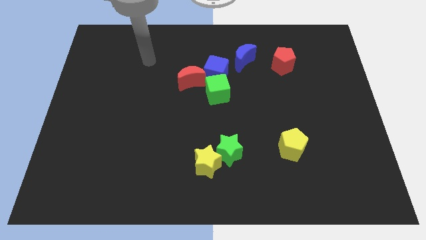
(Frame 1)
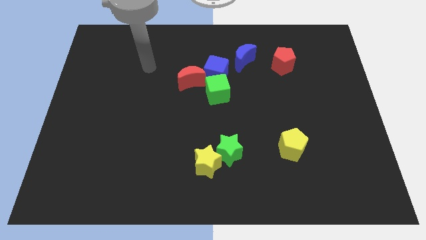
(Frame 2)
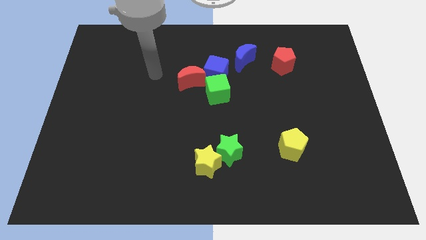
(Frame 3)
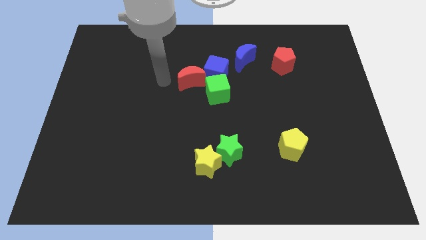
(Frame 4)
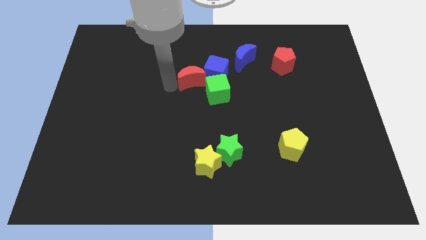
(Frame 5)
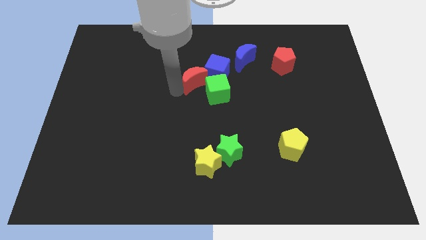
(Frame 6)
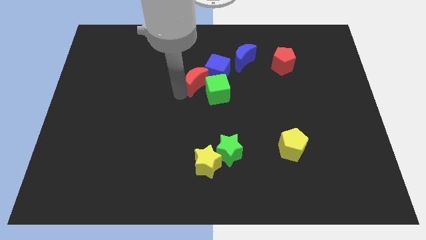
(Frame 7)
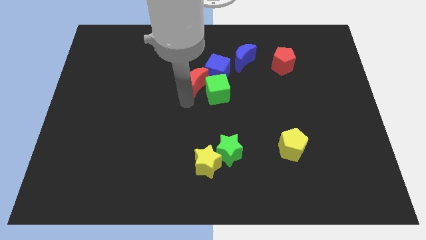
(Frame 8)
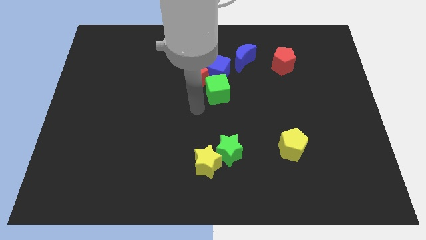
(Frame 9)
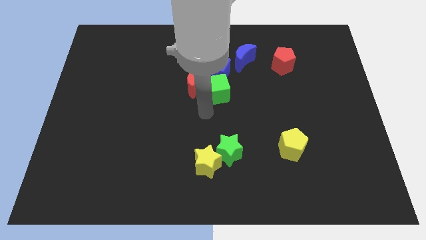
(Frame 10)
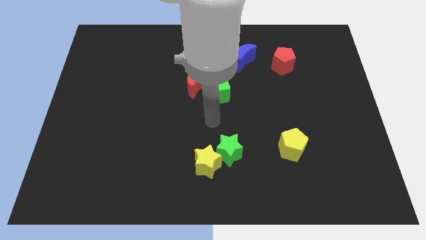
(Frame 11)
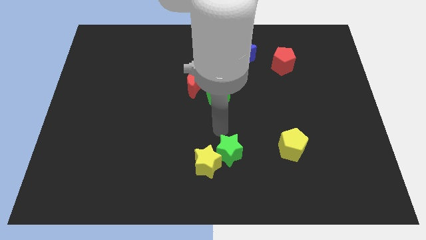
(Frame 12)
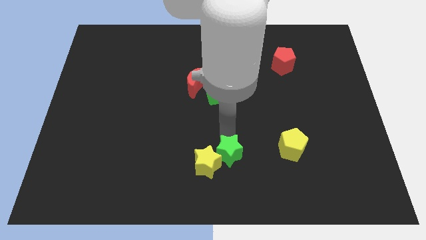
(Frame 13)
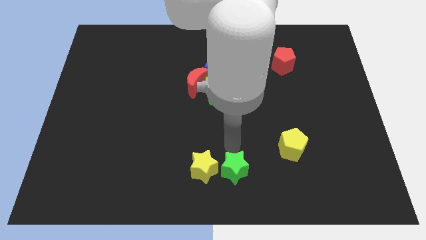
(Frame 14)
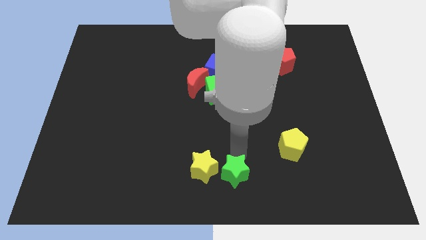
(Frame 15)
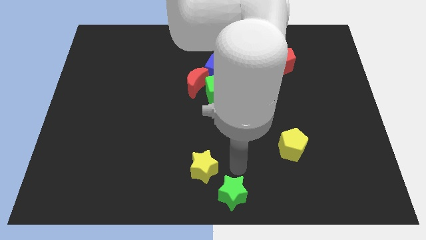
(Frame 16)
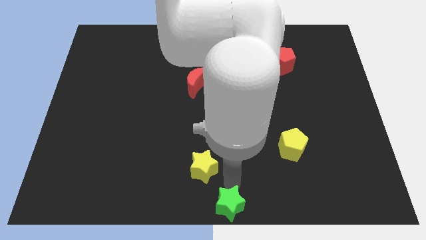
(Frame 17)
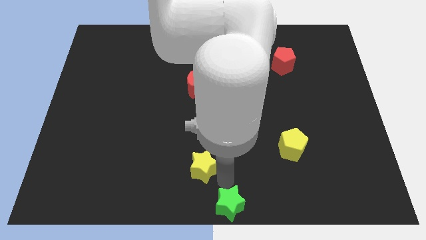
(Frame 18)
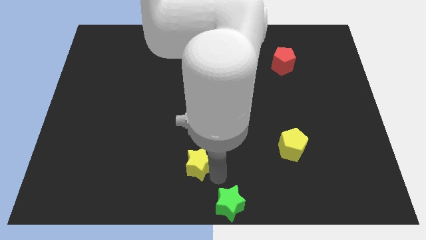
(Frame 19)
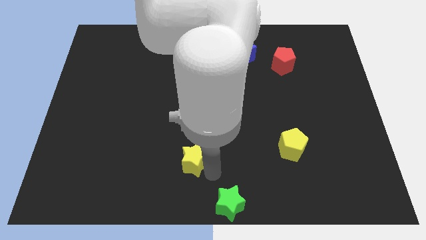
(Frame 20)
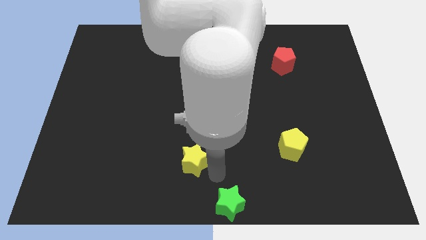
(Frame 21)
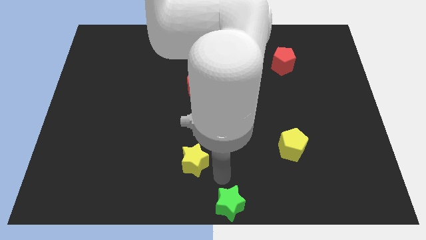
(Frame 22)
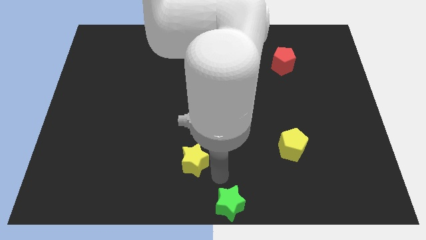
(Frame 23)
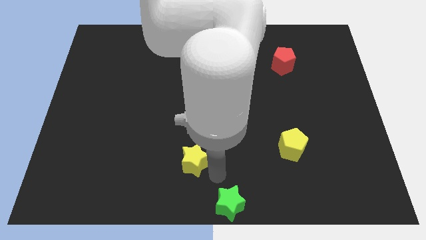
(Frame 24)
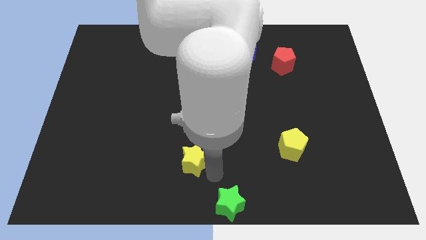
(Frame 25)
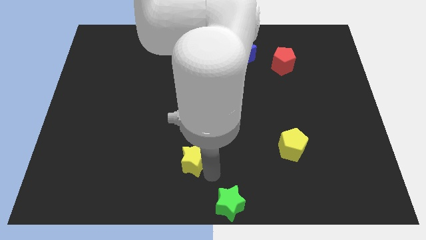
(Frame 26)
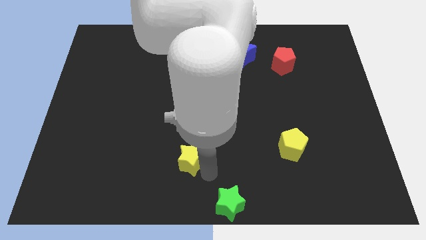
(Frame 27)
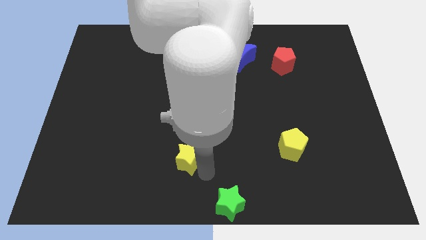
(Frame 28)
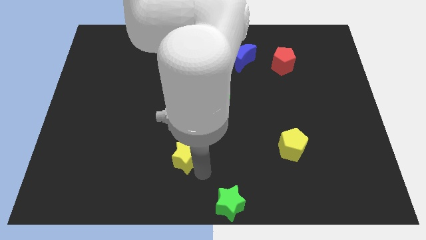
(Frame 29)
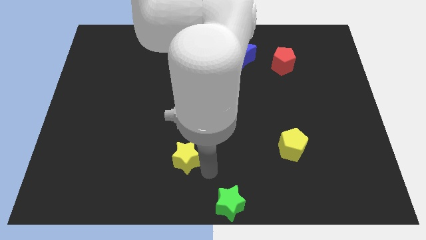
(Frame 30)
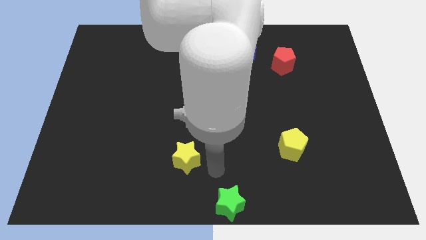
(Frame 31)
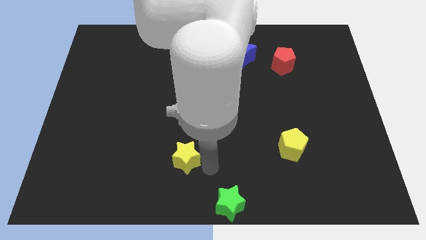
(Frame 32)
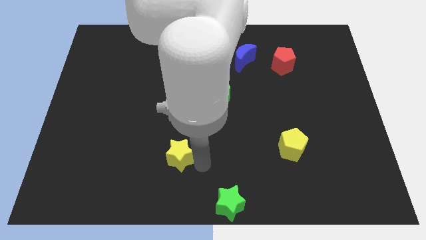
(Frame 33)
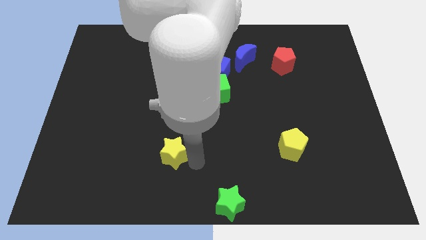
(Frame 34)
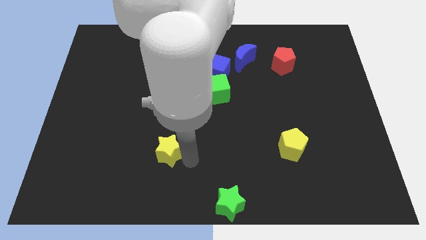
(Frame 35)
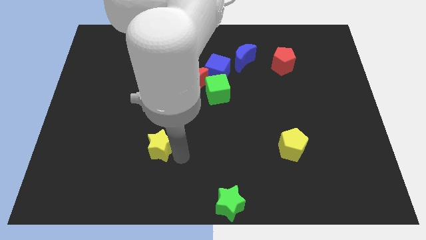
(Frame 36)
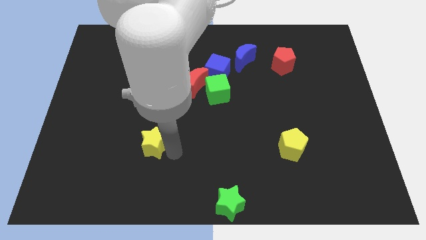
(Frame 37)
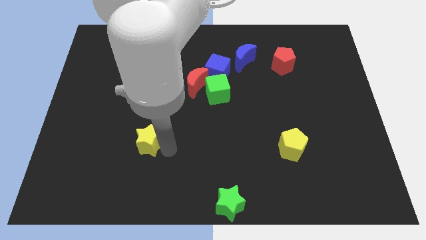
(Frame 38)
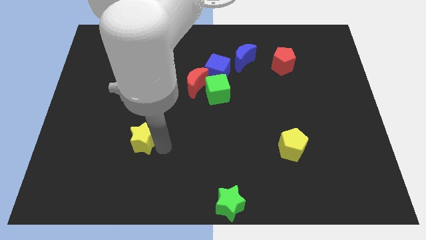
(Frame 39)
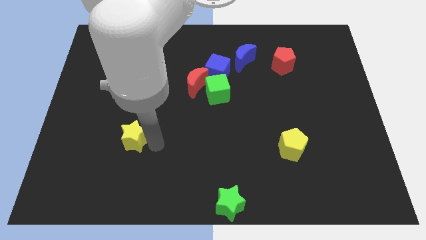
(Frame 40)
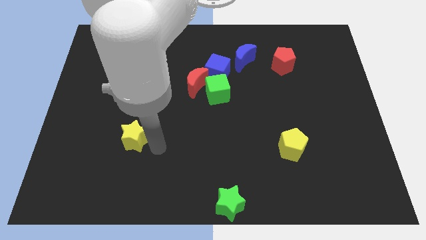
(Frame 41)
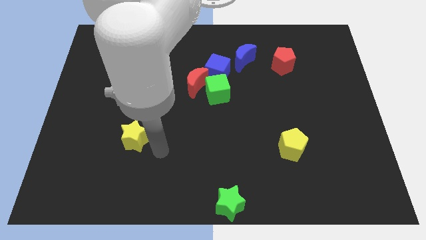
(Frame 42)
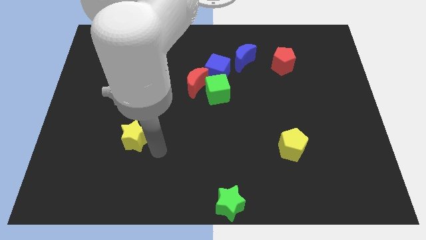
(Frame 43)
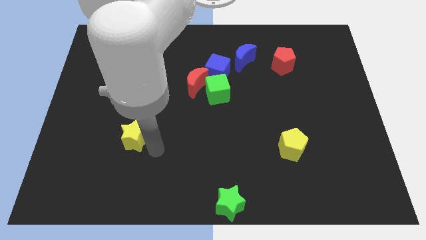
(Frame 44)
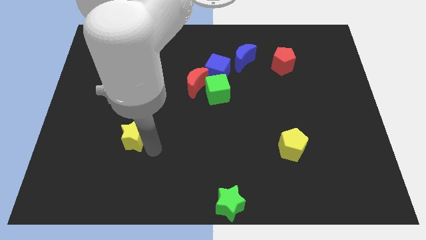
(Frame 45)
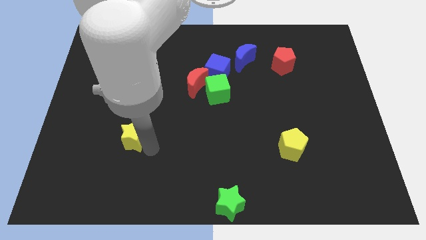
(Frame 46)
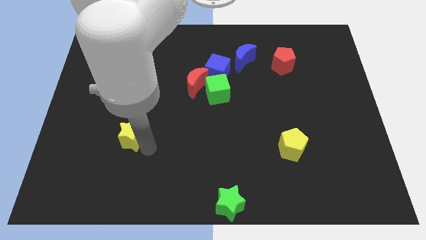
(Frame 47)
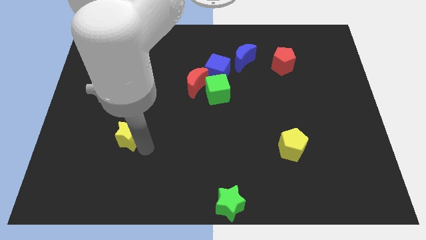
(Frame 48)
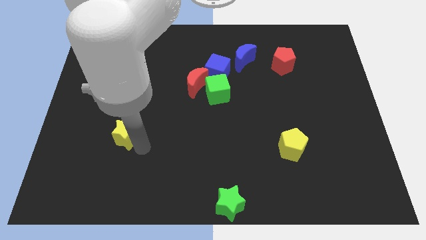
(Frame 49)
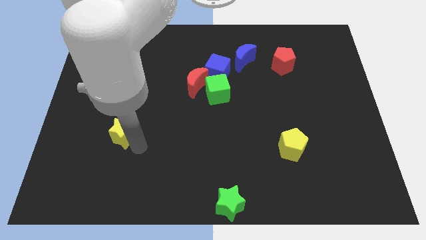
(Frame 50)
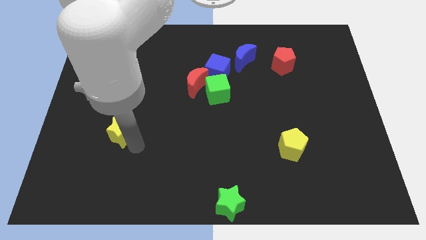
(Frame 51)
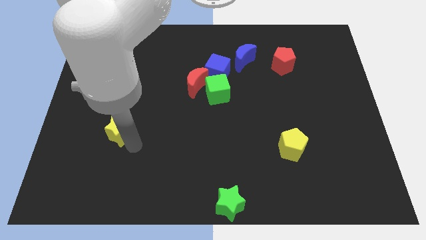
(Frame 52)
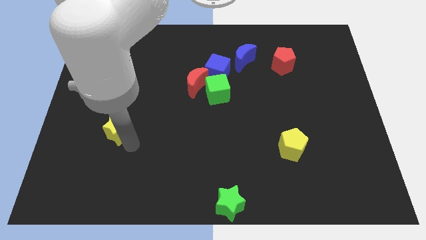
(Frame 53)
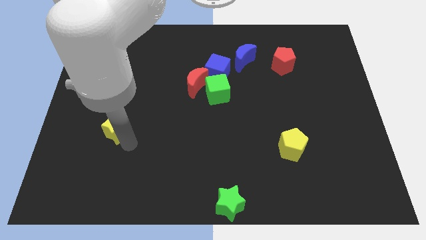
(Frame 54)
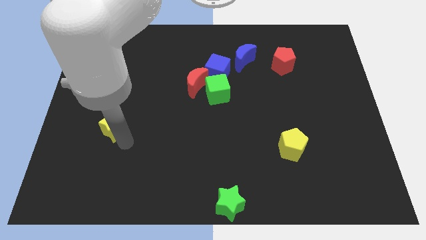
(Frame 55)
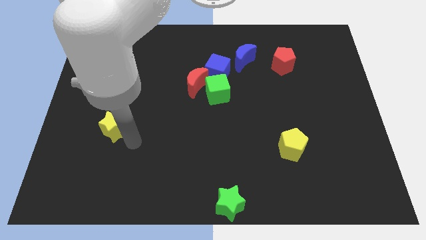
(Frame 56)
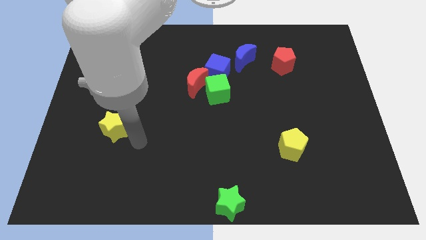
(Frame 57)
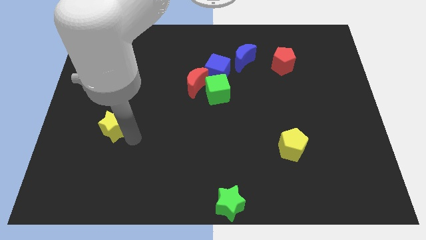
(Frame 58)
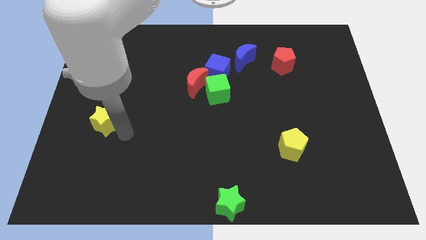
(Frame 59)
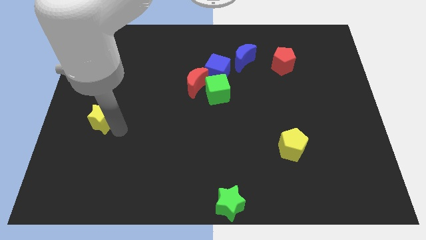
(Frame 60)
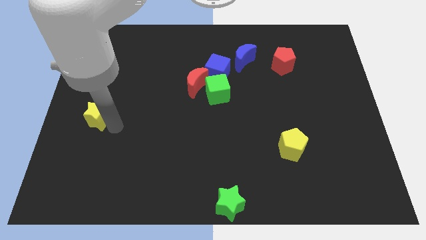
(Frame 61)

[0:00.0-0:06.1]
move the yellow star to the center left
